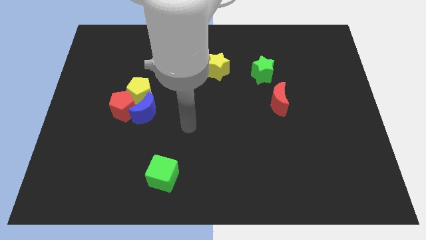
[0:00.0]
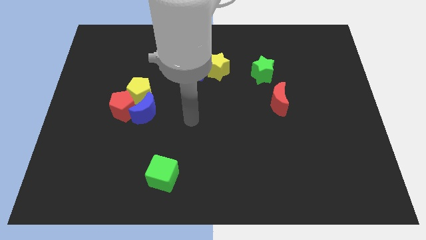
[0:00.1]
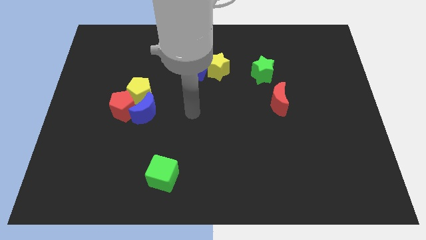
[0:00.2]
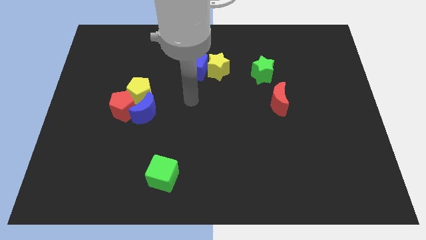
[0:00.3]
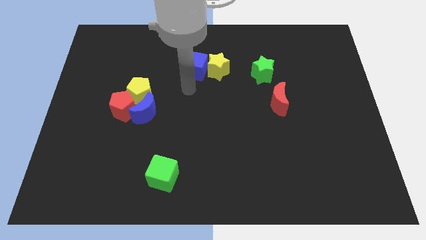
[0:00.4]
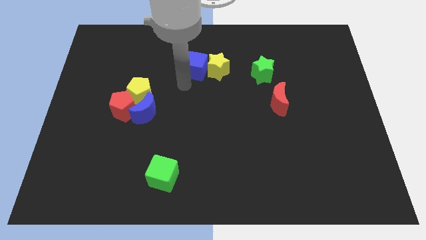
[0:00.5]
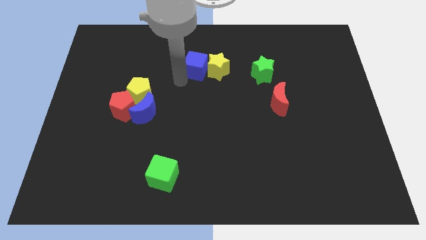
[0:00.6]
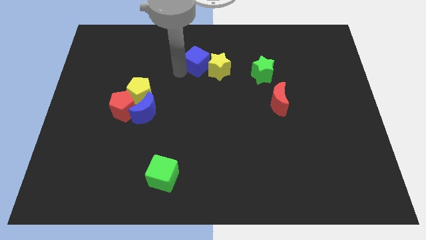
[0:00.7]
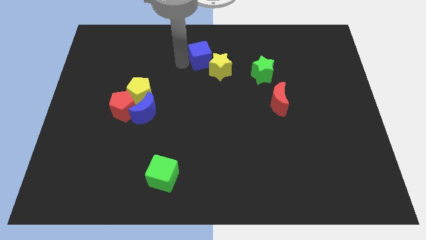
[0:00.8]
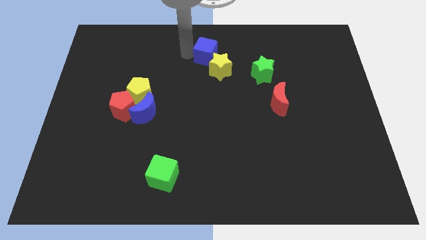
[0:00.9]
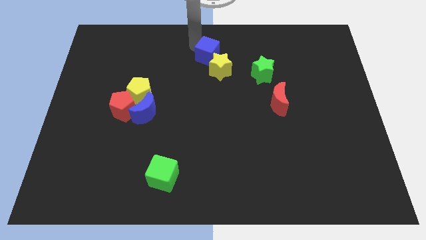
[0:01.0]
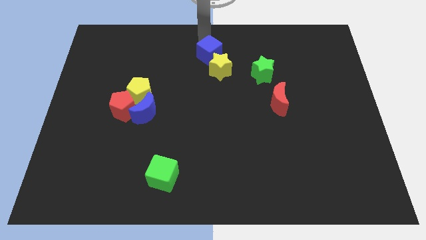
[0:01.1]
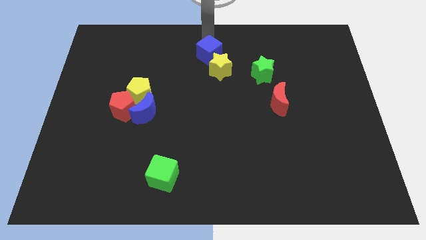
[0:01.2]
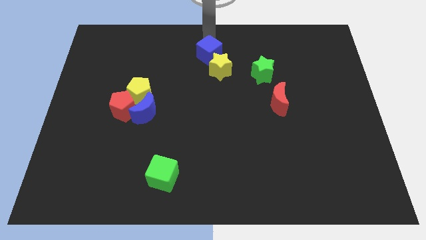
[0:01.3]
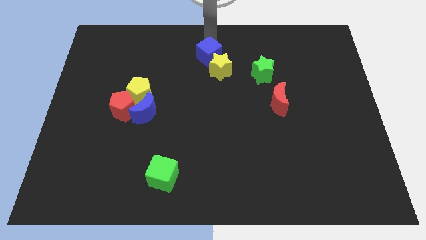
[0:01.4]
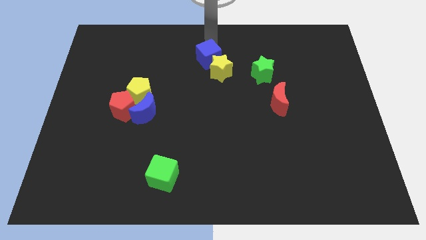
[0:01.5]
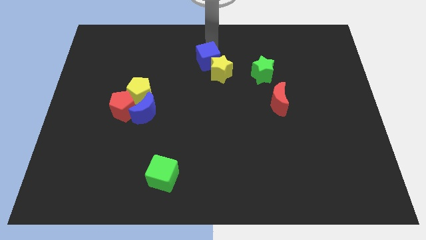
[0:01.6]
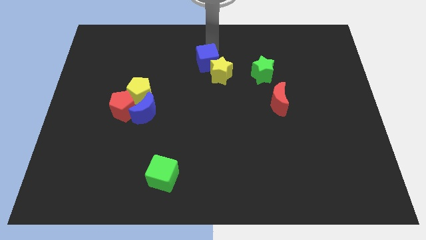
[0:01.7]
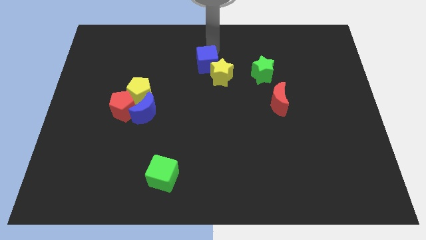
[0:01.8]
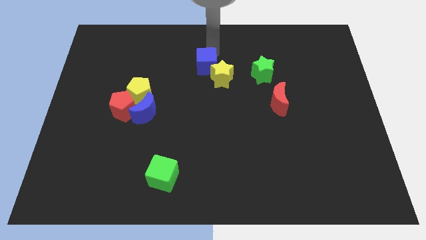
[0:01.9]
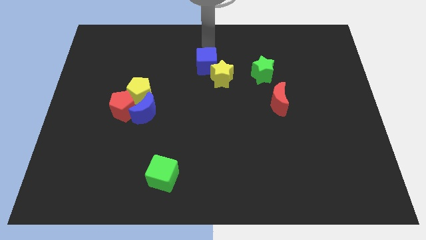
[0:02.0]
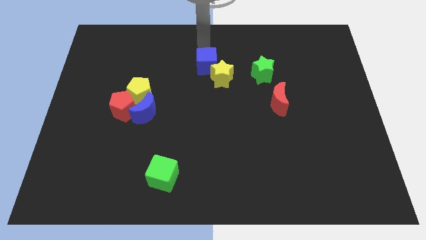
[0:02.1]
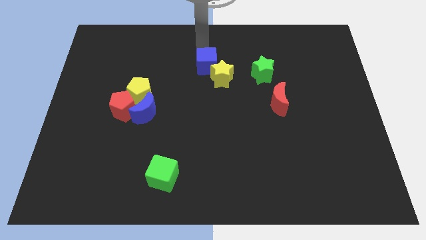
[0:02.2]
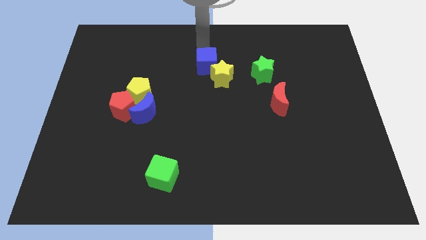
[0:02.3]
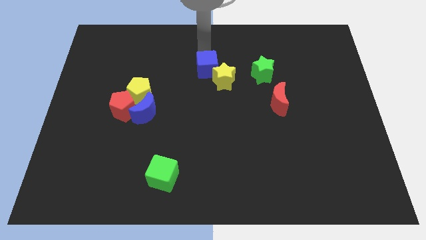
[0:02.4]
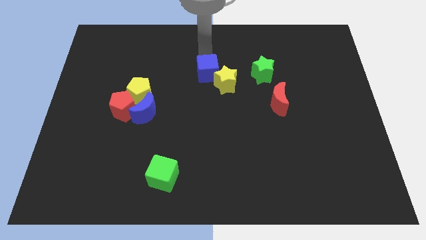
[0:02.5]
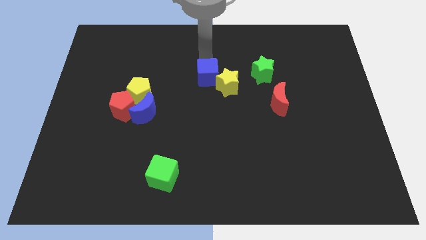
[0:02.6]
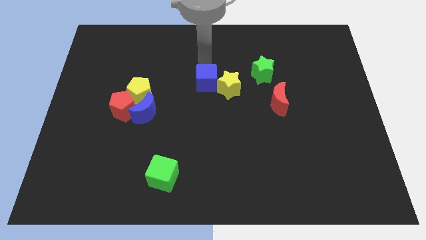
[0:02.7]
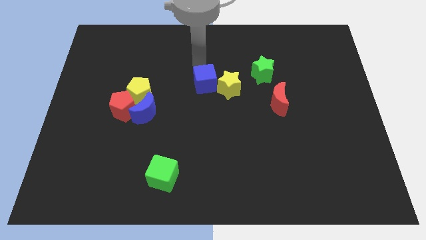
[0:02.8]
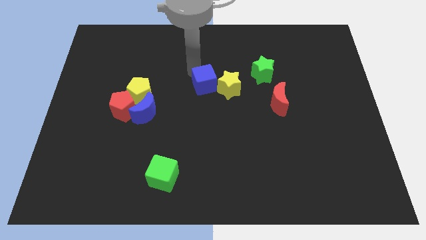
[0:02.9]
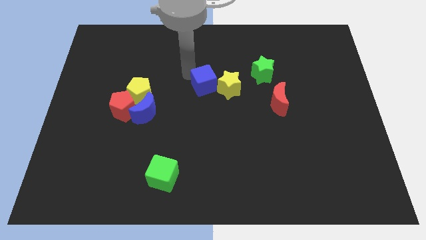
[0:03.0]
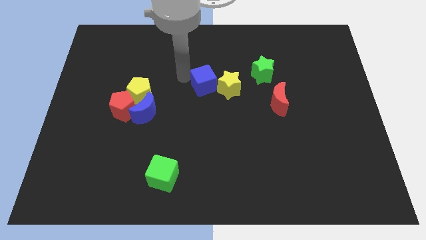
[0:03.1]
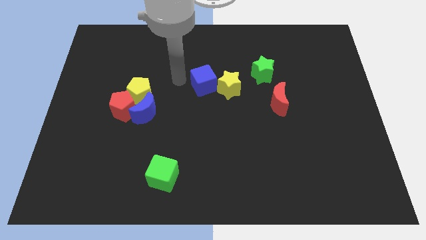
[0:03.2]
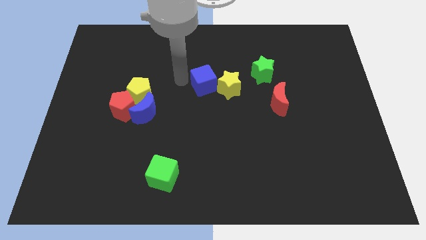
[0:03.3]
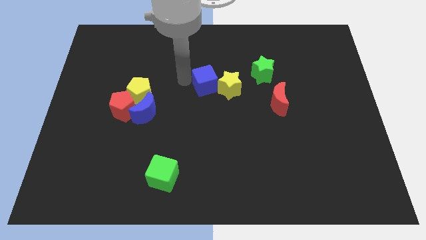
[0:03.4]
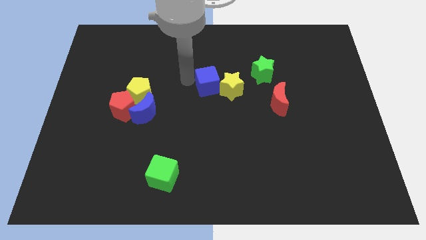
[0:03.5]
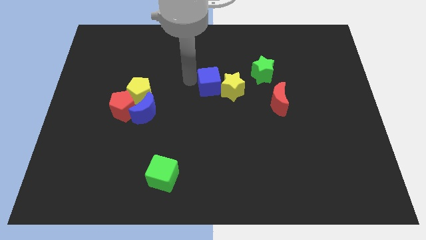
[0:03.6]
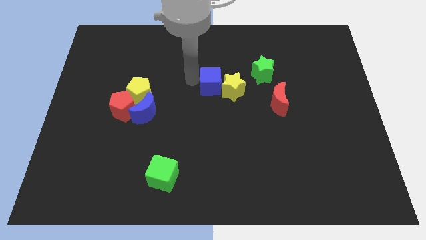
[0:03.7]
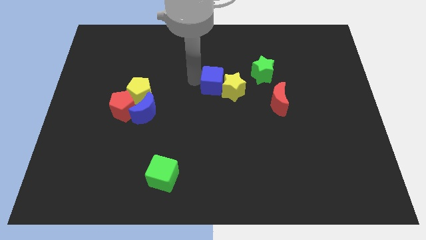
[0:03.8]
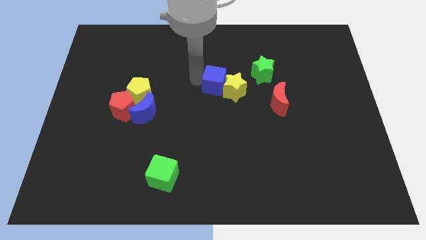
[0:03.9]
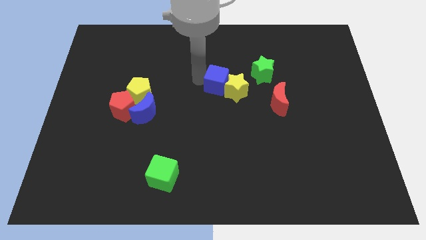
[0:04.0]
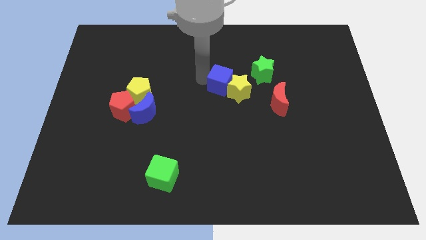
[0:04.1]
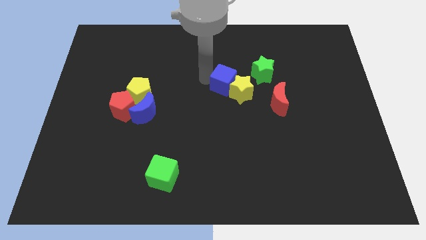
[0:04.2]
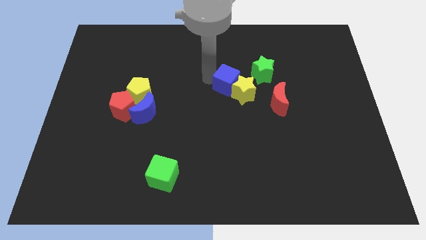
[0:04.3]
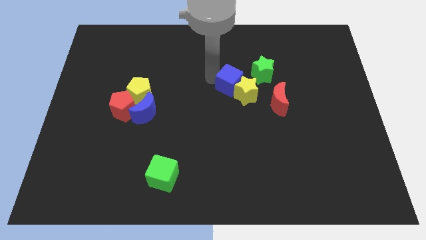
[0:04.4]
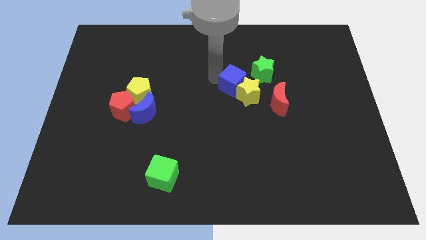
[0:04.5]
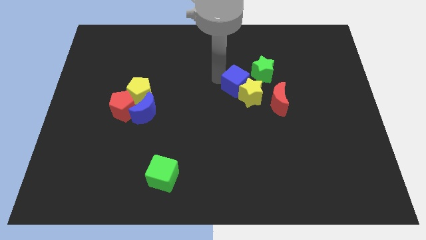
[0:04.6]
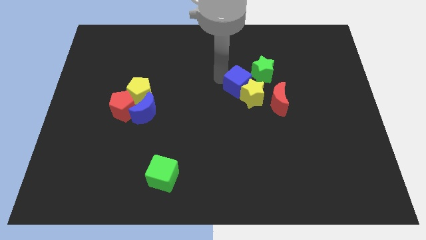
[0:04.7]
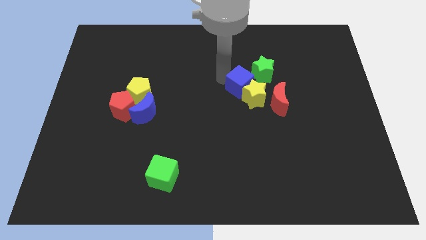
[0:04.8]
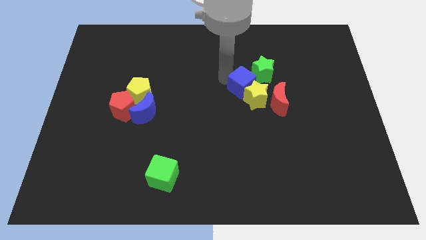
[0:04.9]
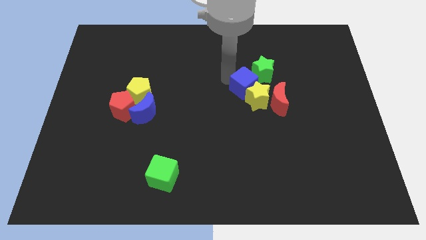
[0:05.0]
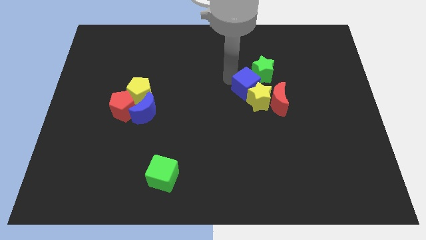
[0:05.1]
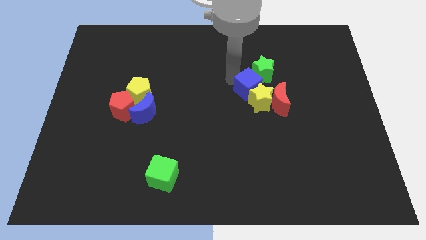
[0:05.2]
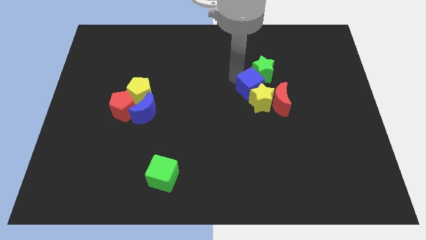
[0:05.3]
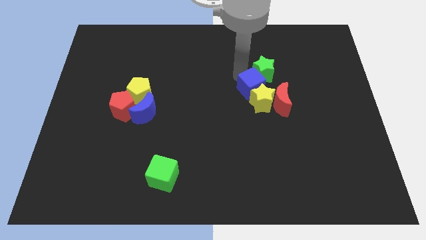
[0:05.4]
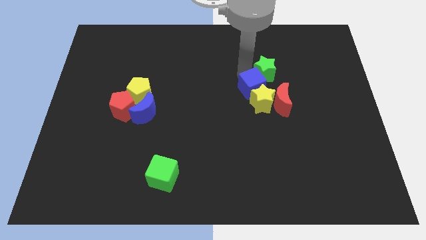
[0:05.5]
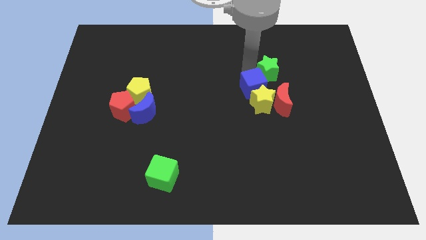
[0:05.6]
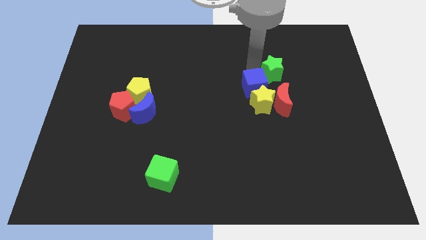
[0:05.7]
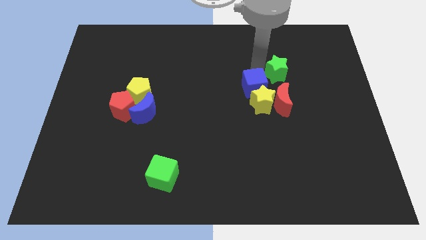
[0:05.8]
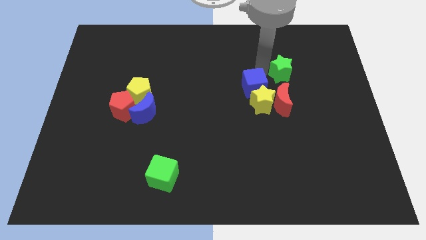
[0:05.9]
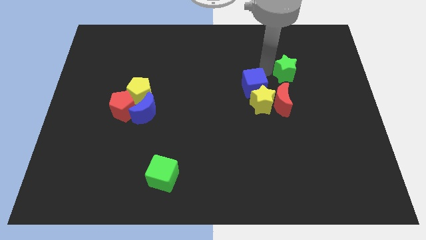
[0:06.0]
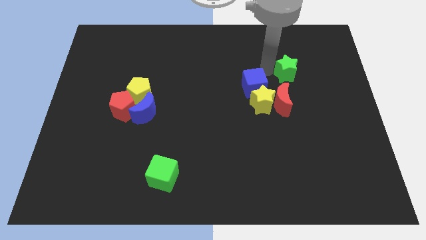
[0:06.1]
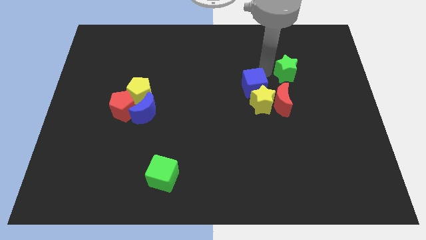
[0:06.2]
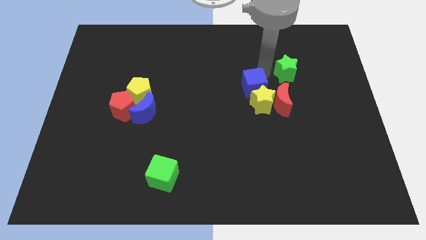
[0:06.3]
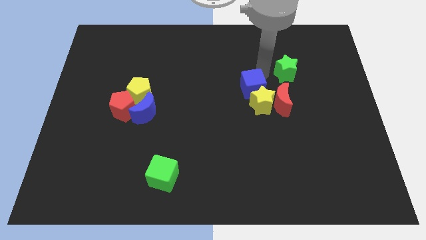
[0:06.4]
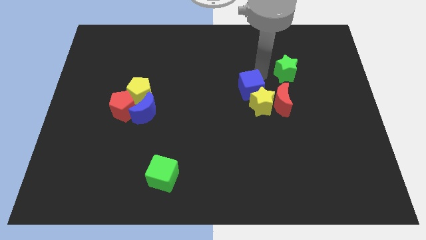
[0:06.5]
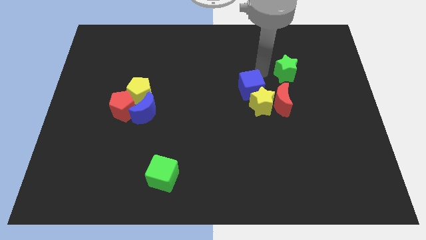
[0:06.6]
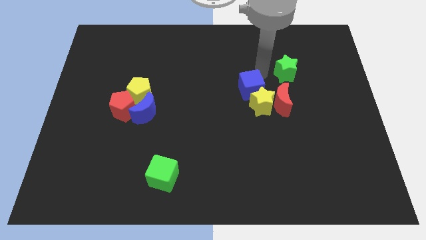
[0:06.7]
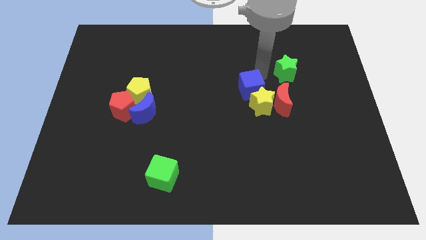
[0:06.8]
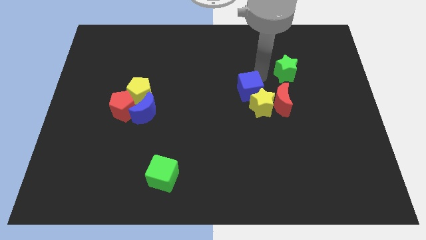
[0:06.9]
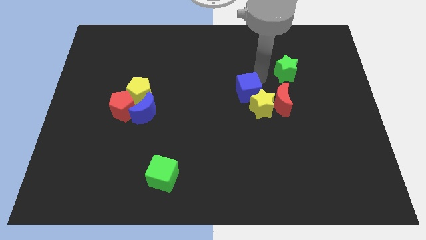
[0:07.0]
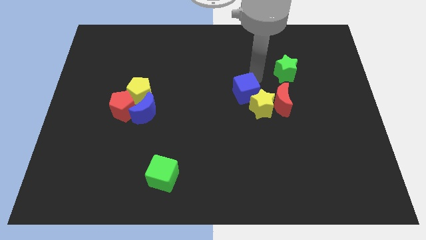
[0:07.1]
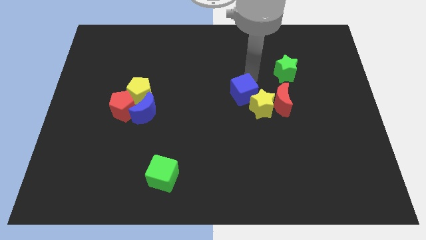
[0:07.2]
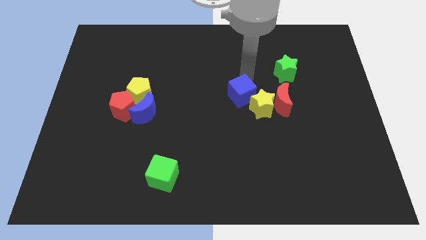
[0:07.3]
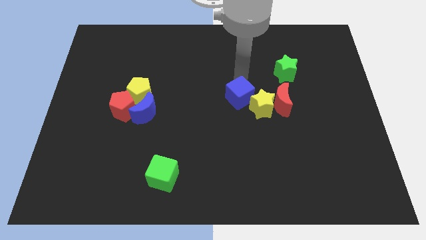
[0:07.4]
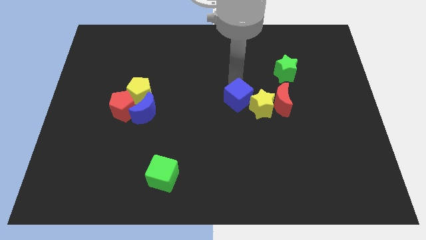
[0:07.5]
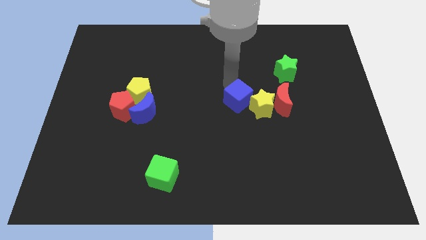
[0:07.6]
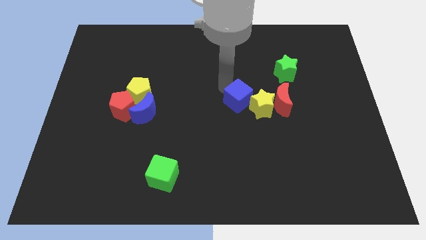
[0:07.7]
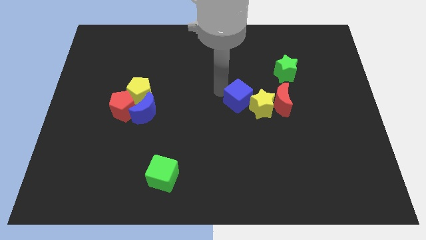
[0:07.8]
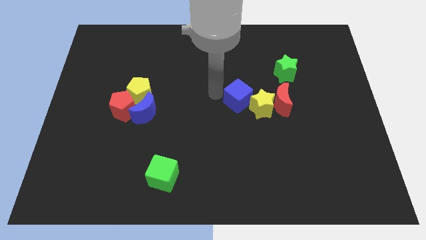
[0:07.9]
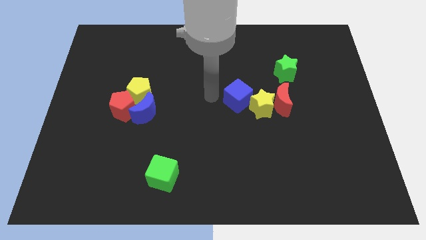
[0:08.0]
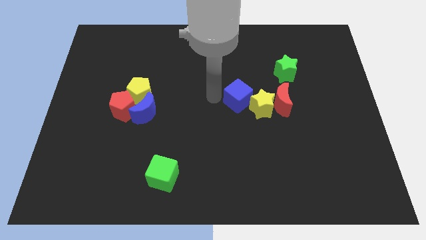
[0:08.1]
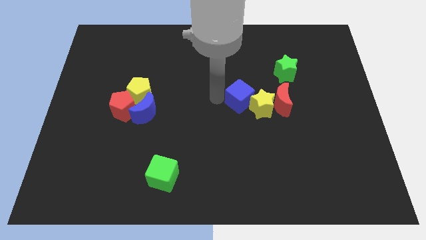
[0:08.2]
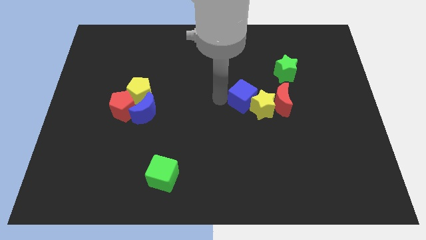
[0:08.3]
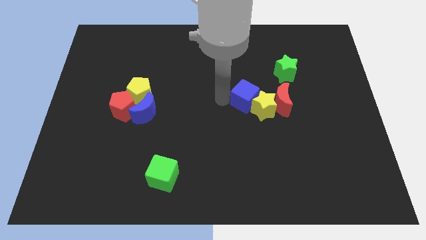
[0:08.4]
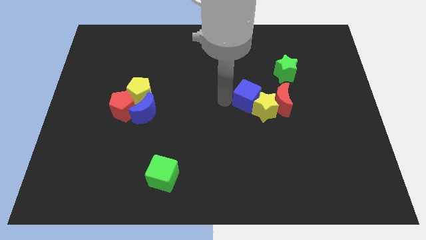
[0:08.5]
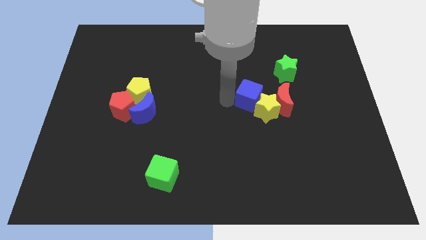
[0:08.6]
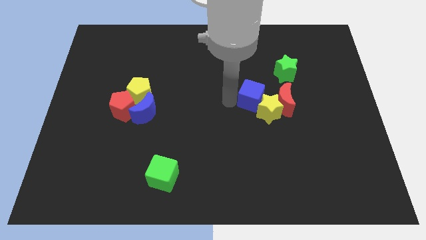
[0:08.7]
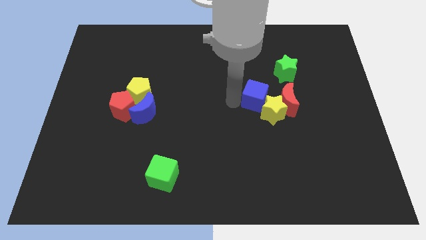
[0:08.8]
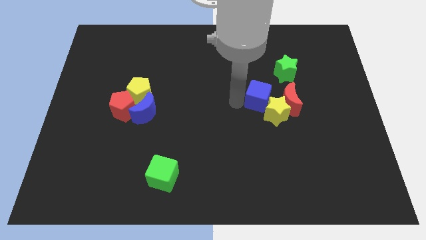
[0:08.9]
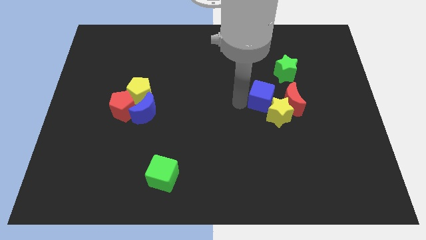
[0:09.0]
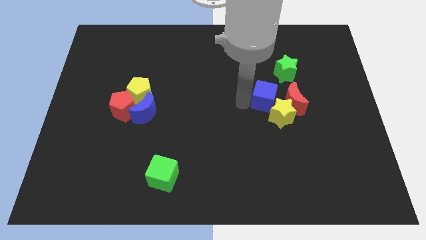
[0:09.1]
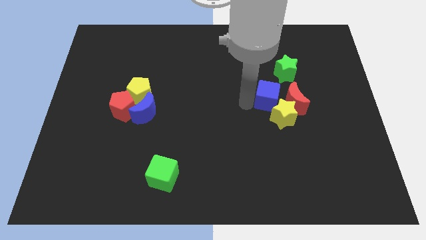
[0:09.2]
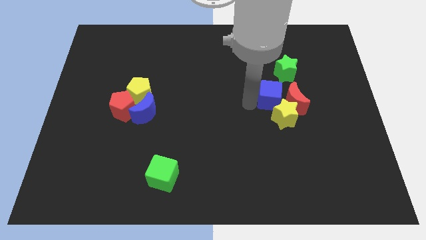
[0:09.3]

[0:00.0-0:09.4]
move the blue cube to the red moon
